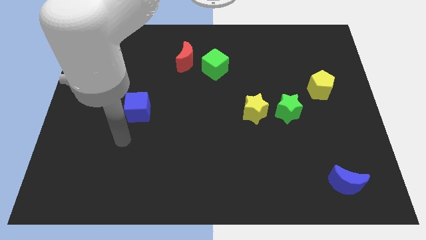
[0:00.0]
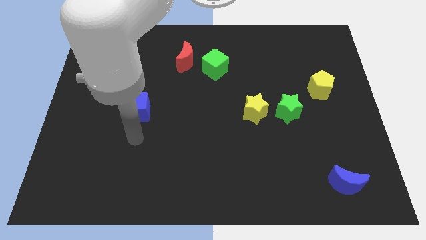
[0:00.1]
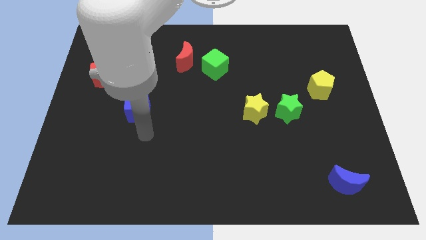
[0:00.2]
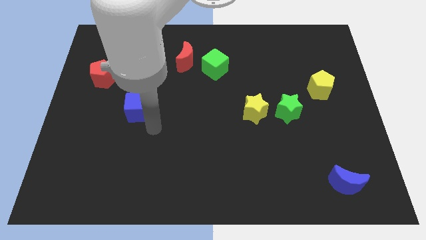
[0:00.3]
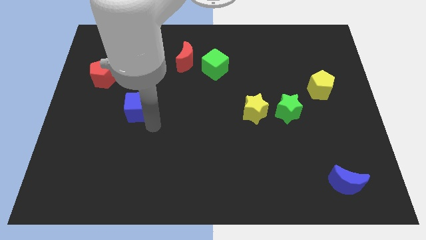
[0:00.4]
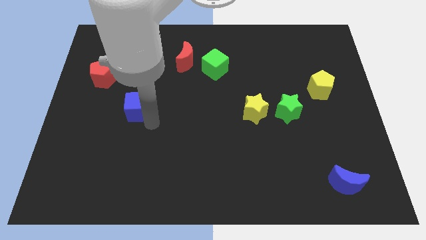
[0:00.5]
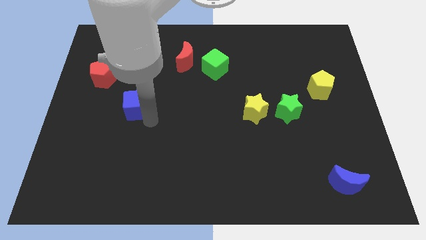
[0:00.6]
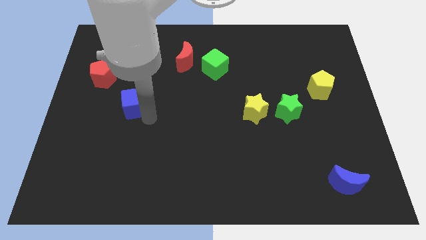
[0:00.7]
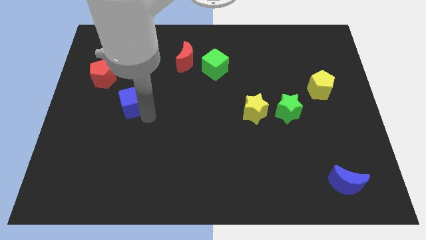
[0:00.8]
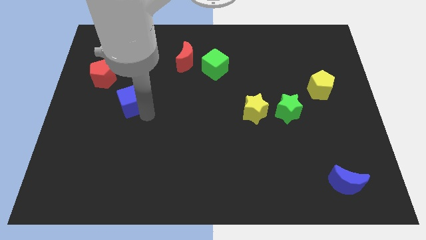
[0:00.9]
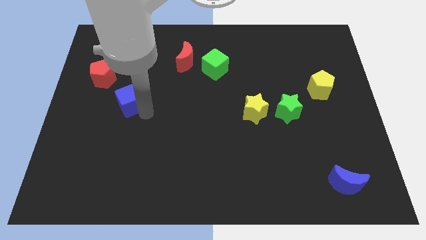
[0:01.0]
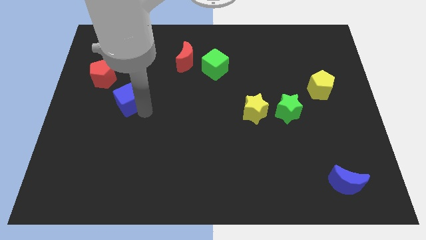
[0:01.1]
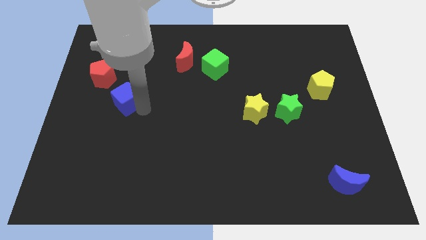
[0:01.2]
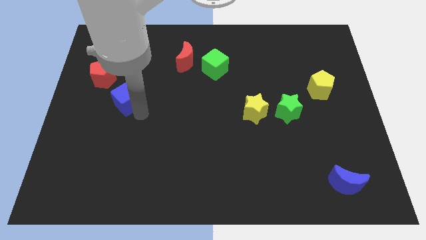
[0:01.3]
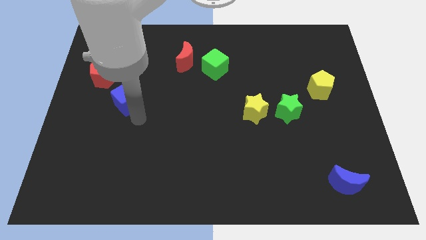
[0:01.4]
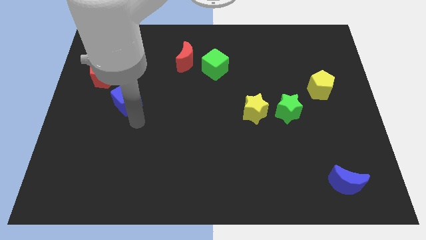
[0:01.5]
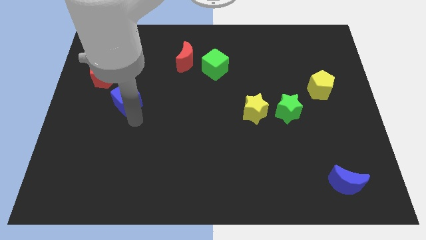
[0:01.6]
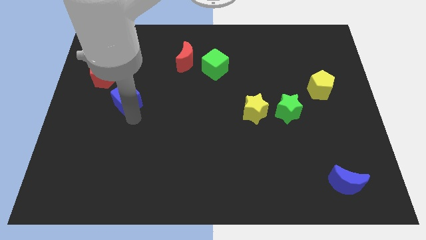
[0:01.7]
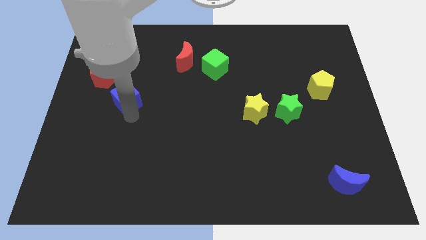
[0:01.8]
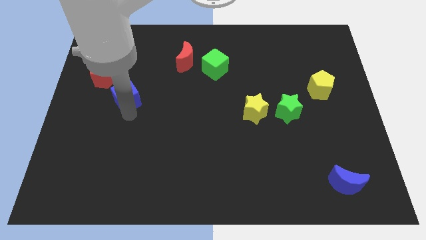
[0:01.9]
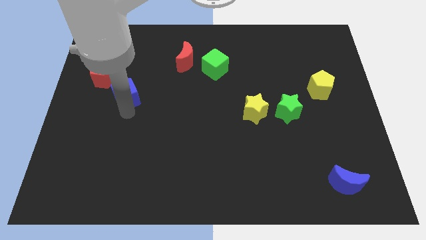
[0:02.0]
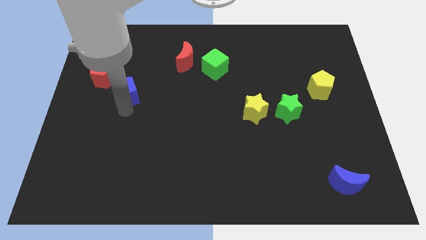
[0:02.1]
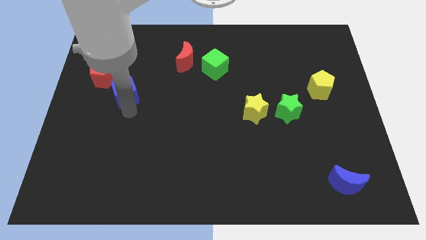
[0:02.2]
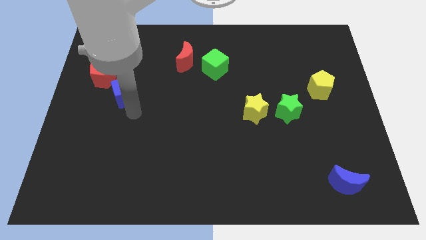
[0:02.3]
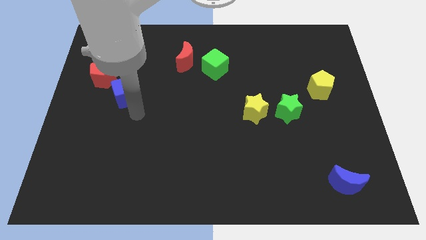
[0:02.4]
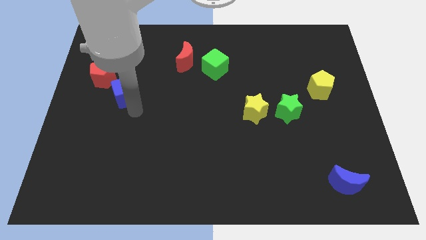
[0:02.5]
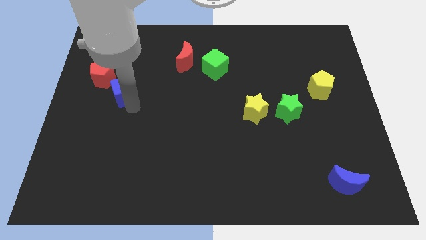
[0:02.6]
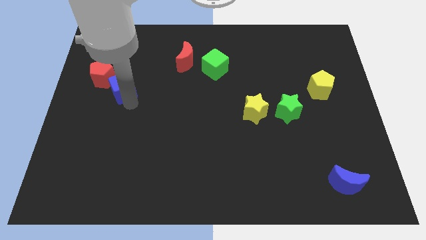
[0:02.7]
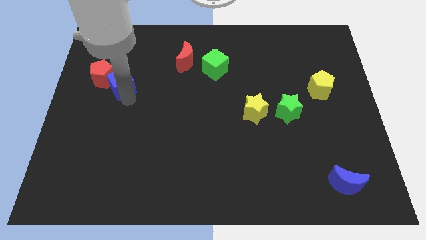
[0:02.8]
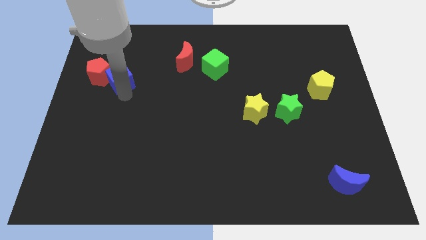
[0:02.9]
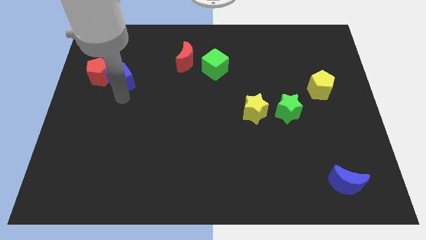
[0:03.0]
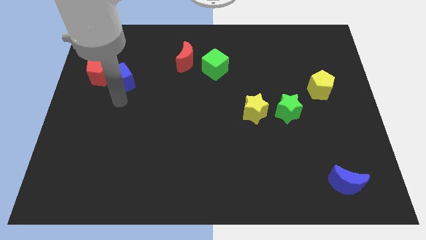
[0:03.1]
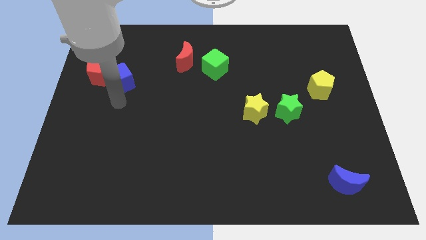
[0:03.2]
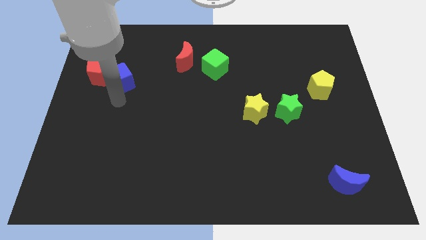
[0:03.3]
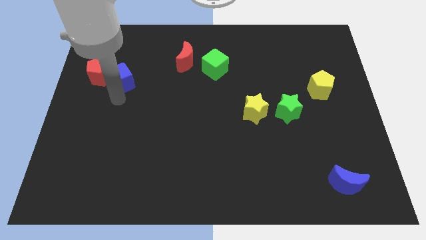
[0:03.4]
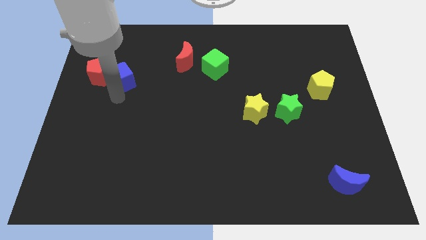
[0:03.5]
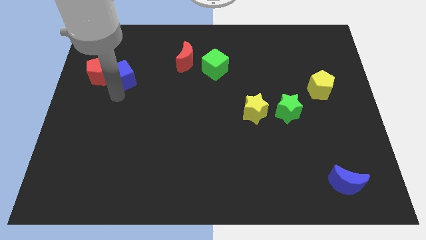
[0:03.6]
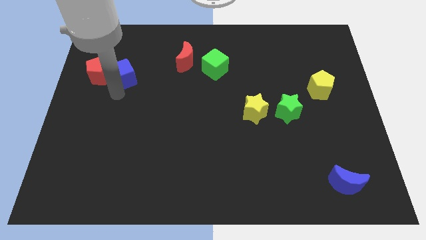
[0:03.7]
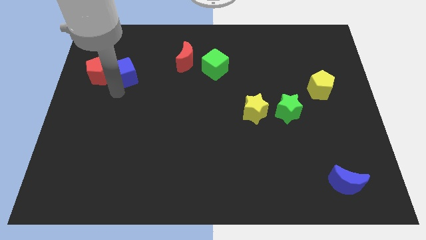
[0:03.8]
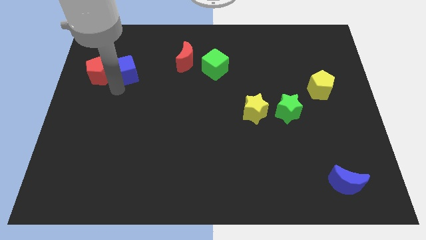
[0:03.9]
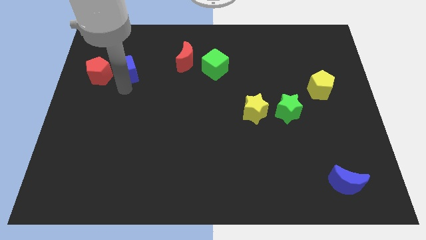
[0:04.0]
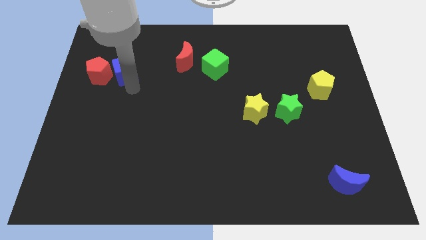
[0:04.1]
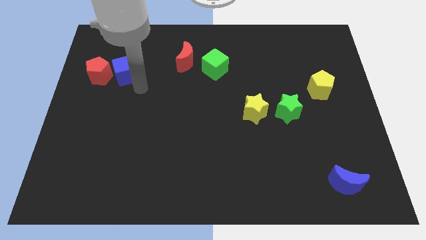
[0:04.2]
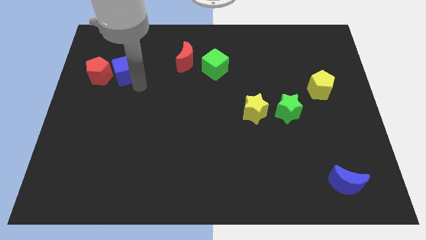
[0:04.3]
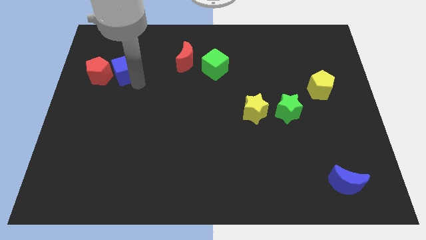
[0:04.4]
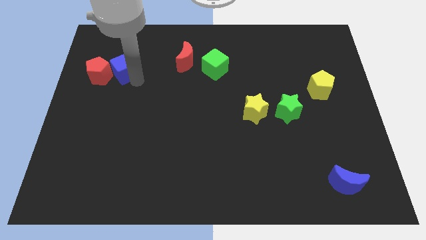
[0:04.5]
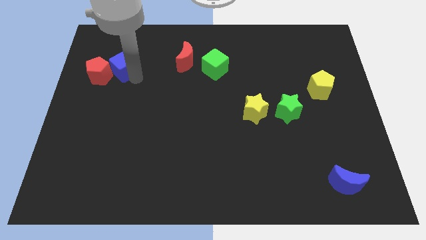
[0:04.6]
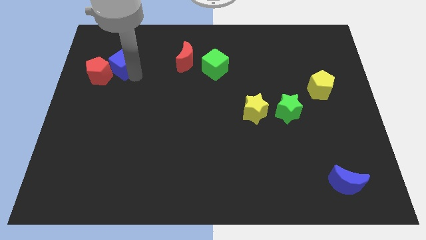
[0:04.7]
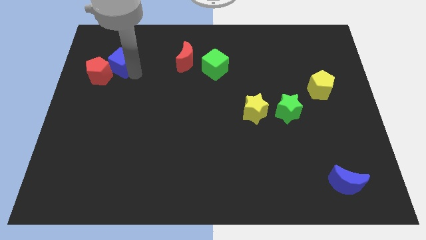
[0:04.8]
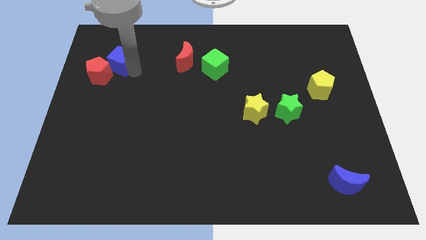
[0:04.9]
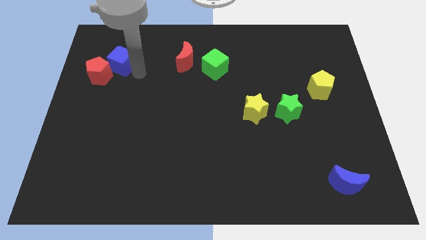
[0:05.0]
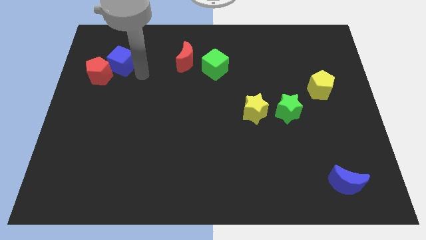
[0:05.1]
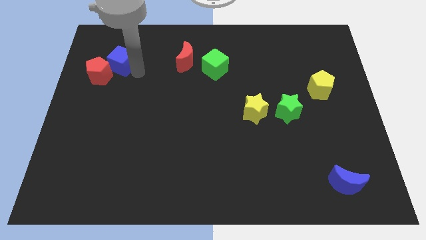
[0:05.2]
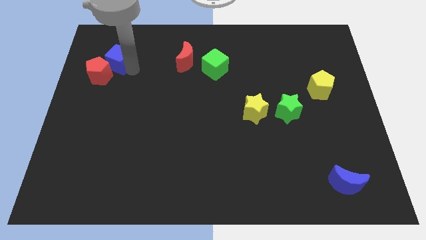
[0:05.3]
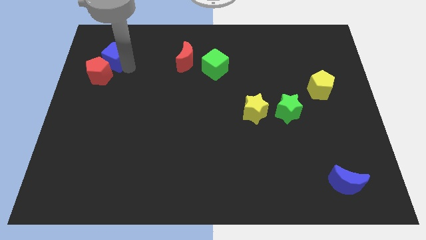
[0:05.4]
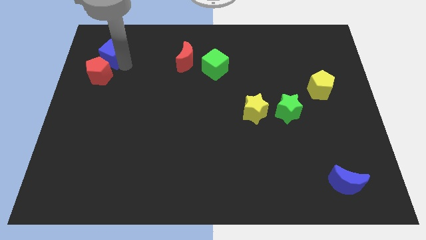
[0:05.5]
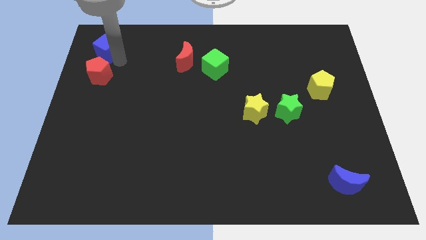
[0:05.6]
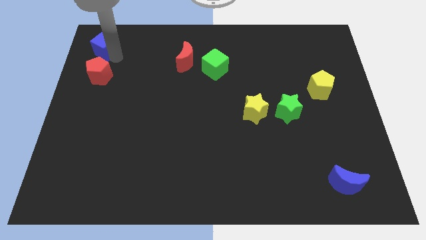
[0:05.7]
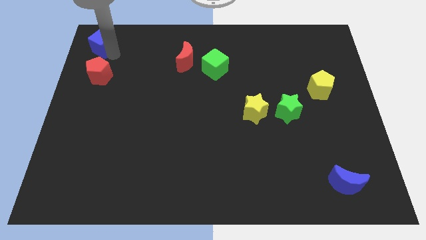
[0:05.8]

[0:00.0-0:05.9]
move the blue cube to the top left corner
